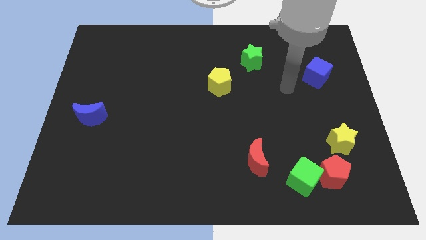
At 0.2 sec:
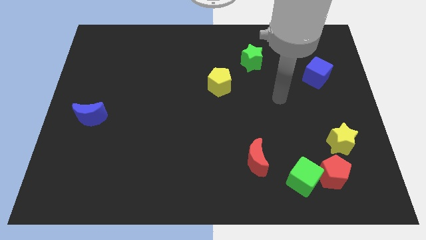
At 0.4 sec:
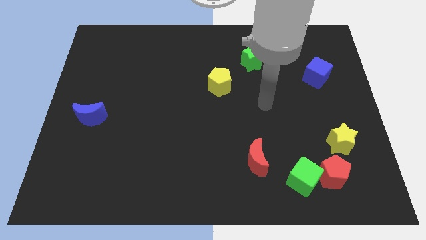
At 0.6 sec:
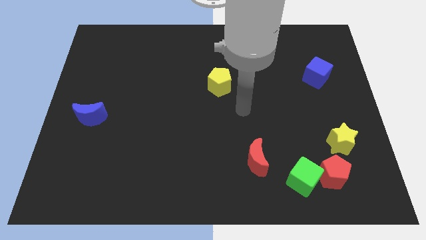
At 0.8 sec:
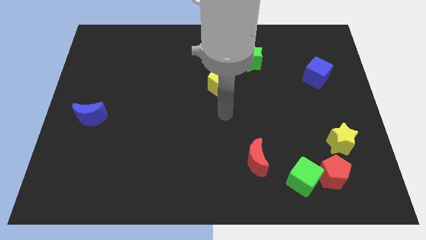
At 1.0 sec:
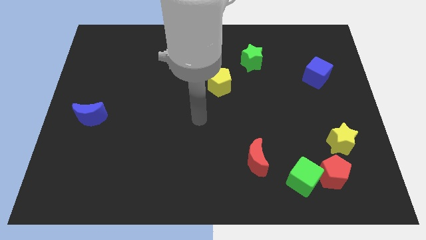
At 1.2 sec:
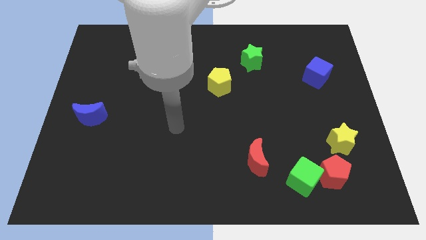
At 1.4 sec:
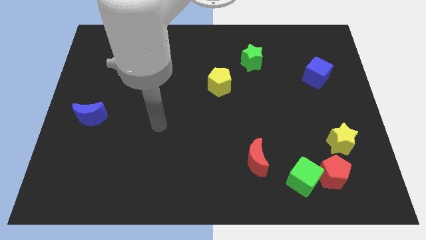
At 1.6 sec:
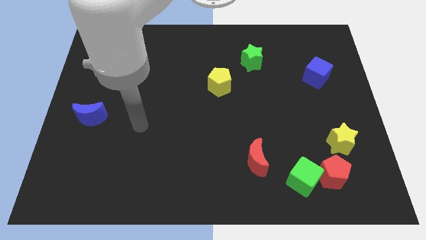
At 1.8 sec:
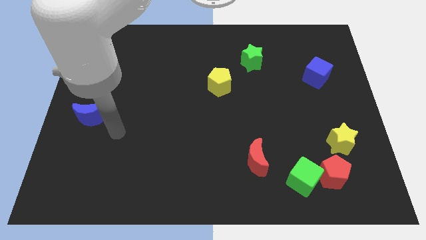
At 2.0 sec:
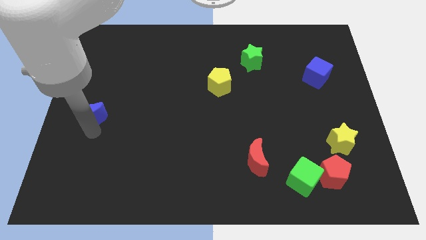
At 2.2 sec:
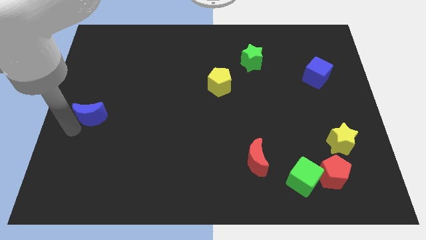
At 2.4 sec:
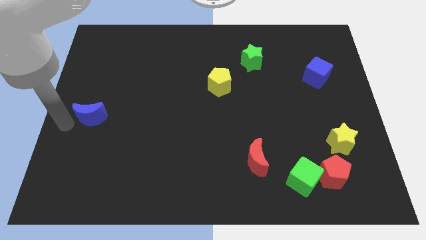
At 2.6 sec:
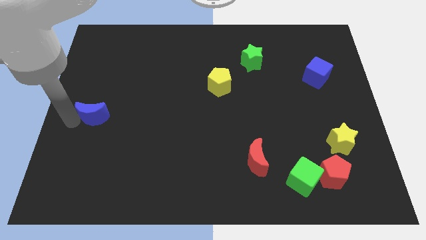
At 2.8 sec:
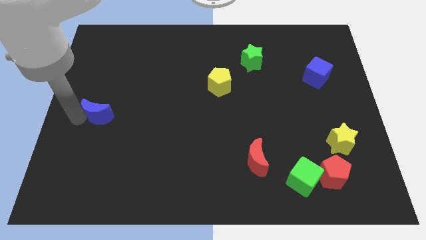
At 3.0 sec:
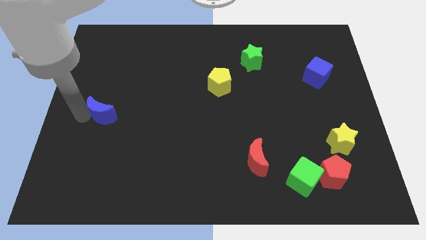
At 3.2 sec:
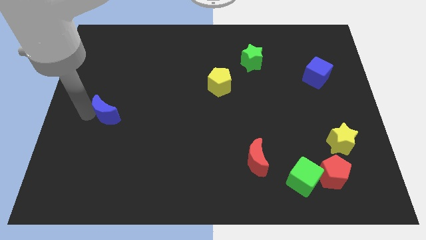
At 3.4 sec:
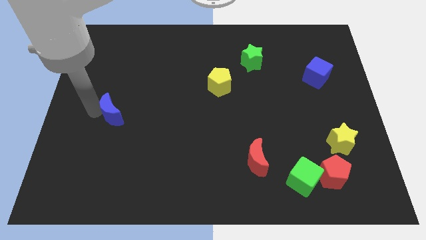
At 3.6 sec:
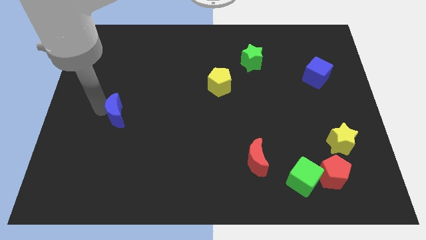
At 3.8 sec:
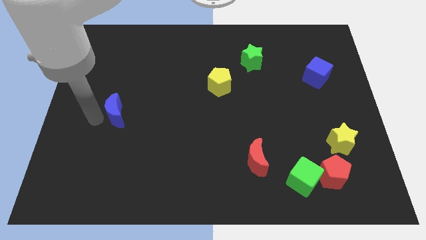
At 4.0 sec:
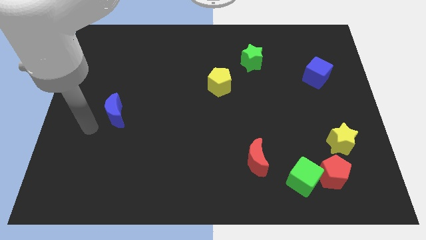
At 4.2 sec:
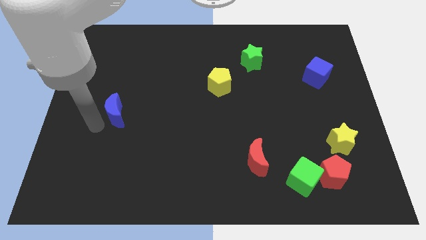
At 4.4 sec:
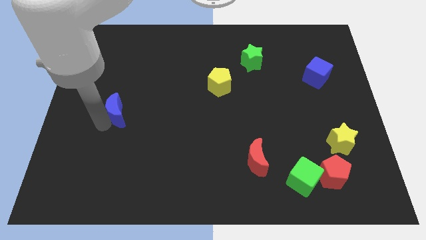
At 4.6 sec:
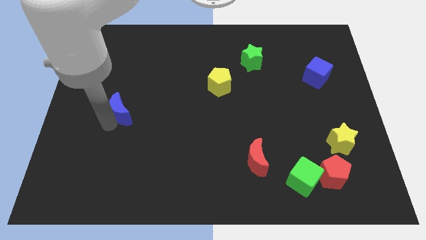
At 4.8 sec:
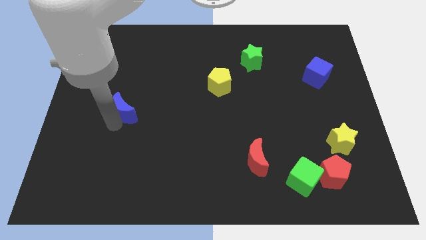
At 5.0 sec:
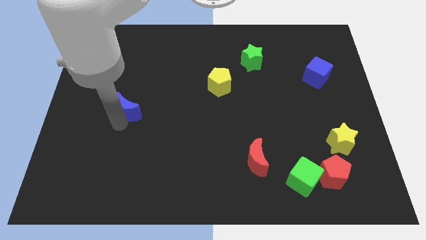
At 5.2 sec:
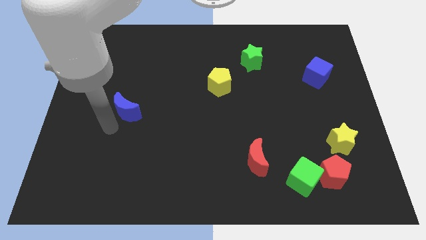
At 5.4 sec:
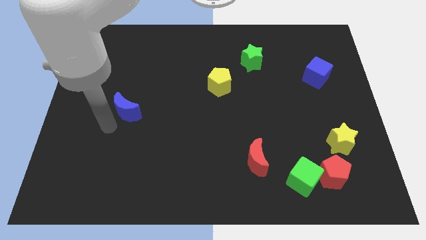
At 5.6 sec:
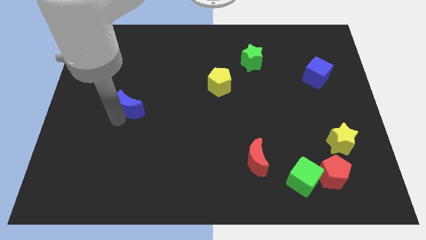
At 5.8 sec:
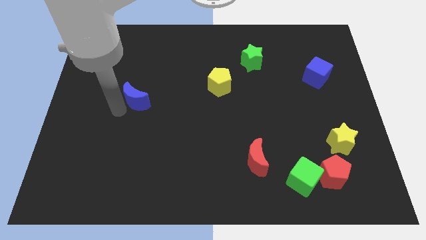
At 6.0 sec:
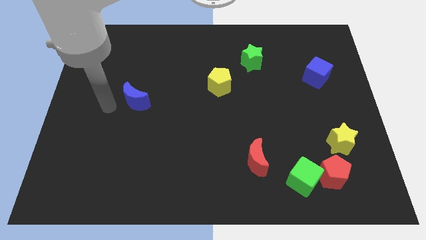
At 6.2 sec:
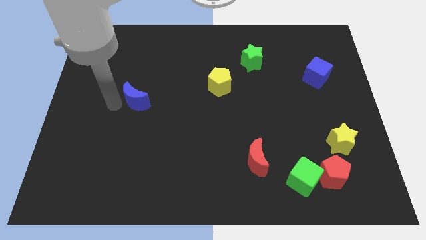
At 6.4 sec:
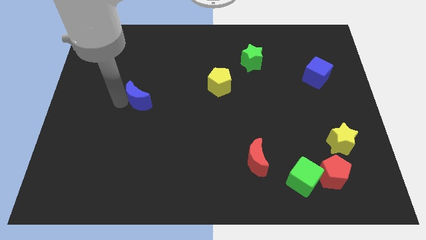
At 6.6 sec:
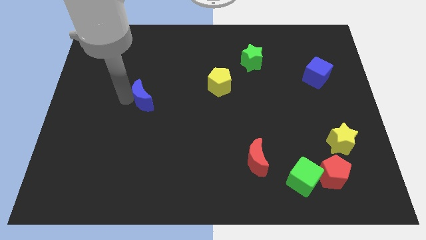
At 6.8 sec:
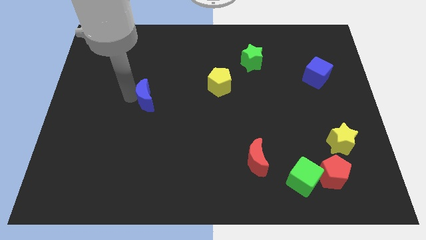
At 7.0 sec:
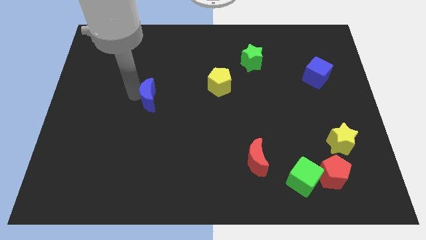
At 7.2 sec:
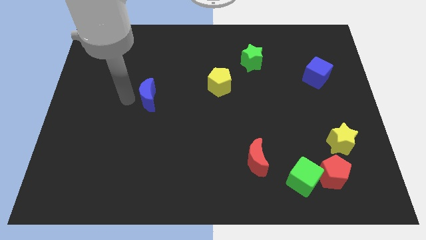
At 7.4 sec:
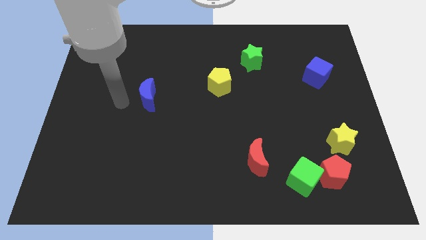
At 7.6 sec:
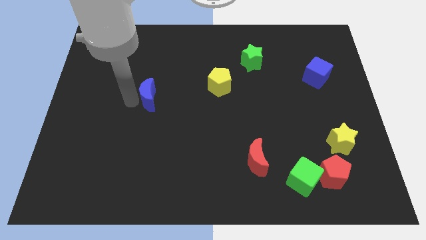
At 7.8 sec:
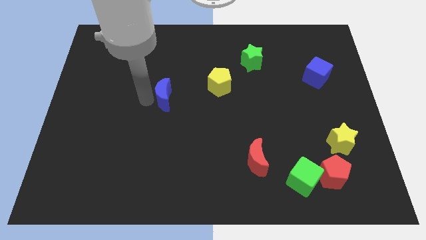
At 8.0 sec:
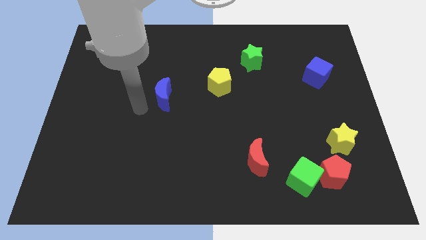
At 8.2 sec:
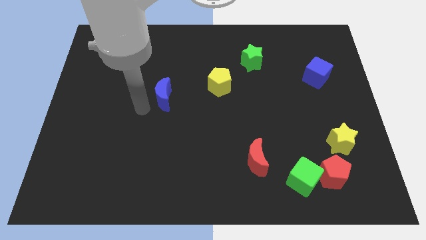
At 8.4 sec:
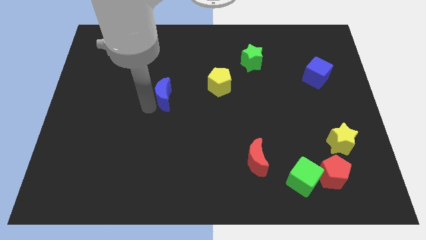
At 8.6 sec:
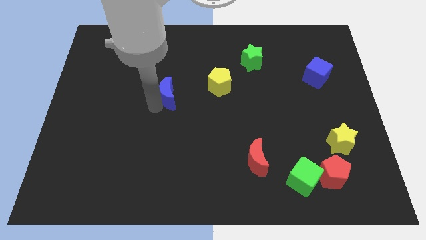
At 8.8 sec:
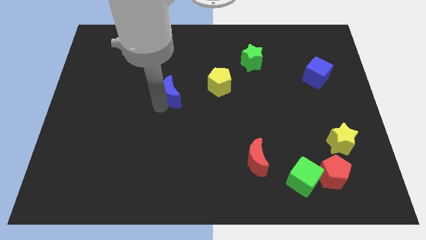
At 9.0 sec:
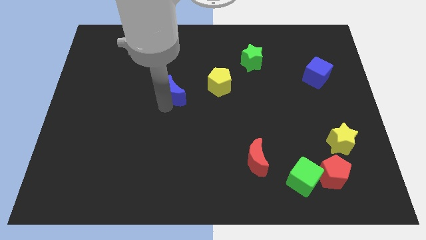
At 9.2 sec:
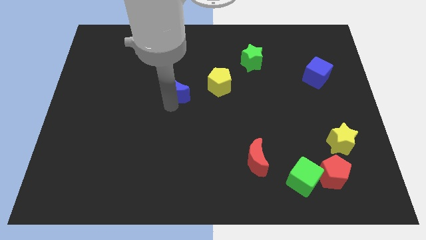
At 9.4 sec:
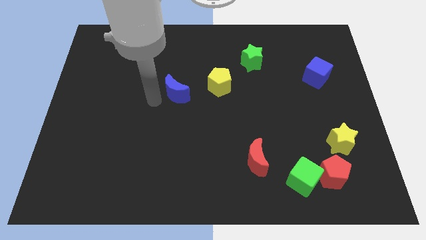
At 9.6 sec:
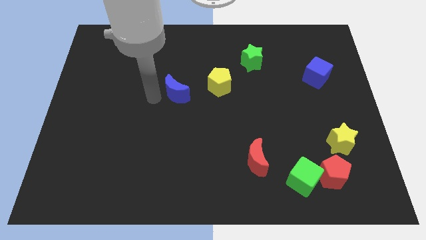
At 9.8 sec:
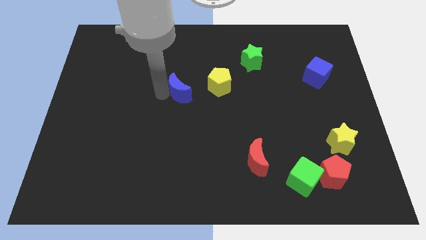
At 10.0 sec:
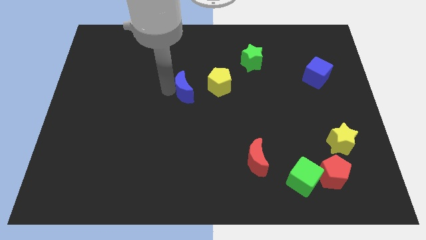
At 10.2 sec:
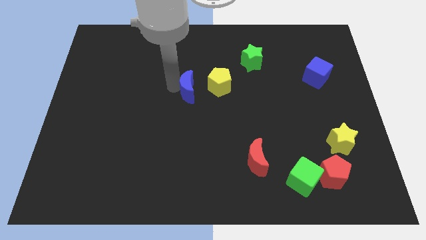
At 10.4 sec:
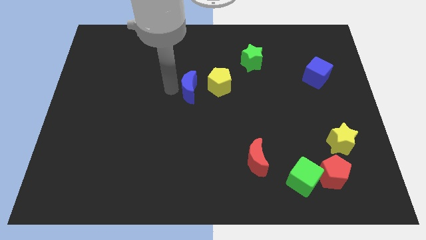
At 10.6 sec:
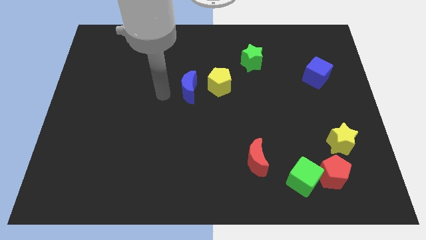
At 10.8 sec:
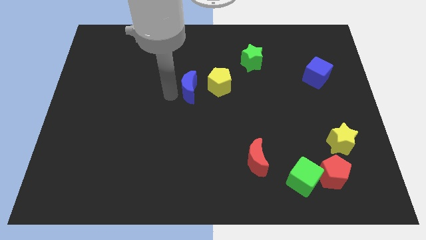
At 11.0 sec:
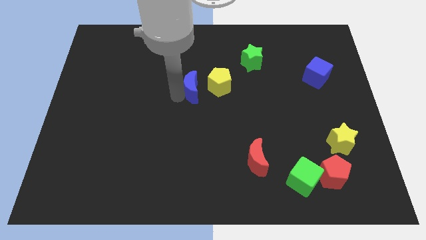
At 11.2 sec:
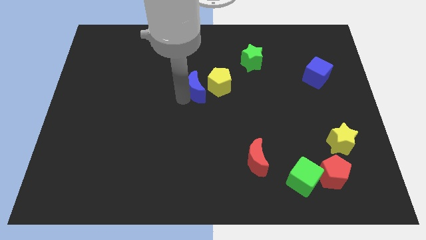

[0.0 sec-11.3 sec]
slide the blue moon to the yellow pentagon

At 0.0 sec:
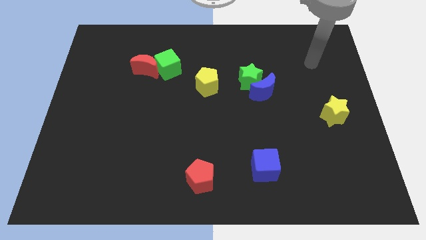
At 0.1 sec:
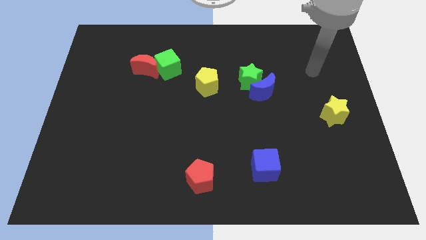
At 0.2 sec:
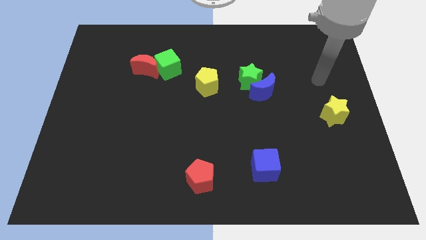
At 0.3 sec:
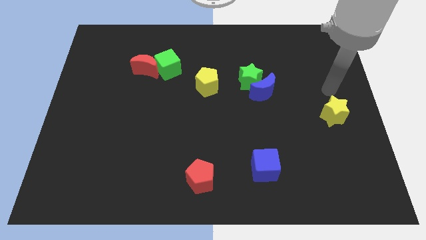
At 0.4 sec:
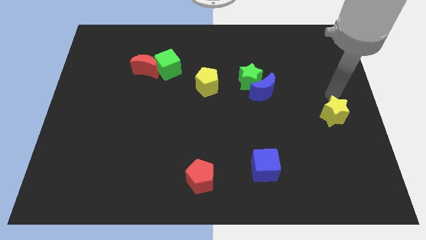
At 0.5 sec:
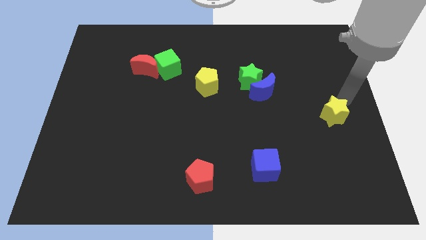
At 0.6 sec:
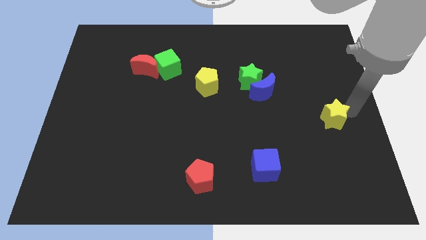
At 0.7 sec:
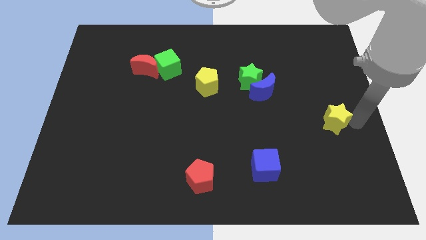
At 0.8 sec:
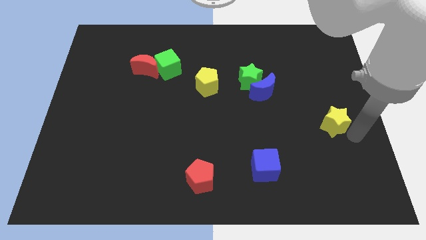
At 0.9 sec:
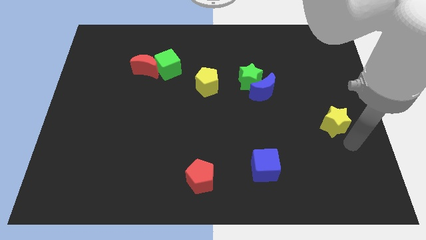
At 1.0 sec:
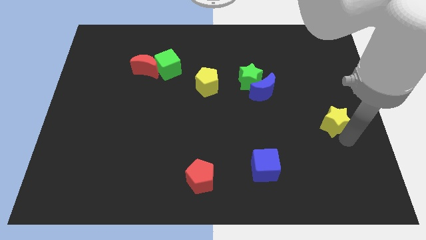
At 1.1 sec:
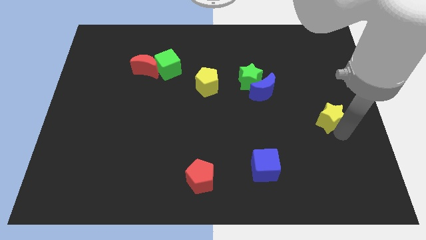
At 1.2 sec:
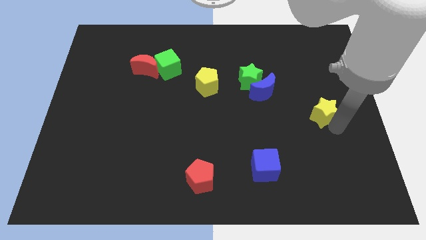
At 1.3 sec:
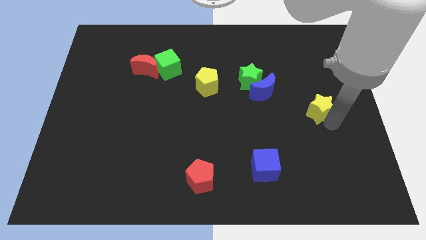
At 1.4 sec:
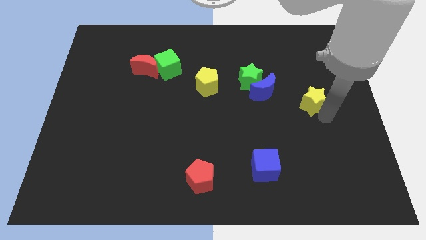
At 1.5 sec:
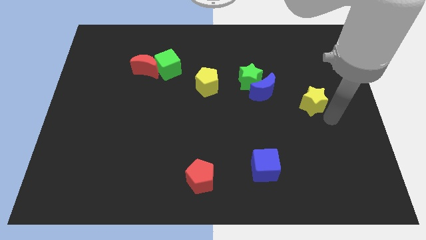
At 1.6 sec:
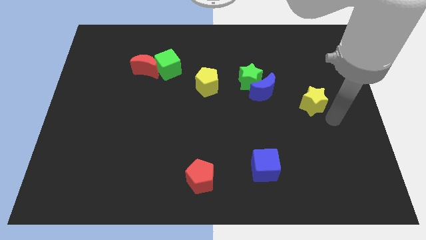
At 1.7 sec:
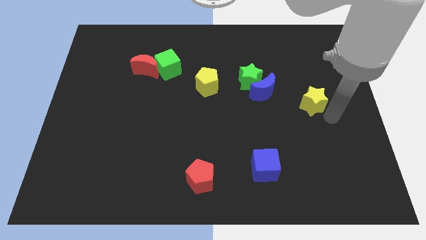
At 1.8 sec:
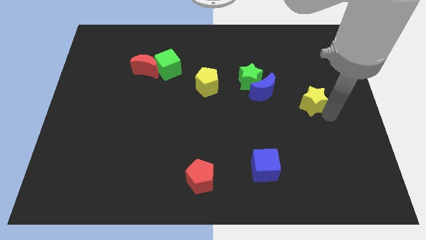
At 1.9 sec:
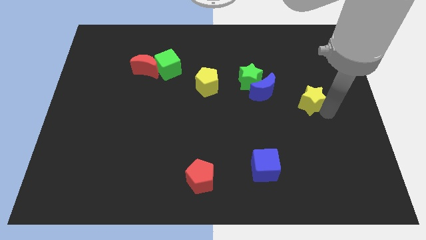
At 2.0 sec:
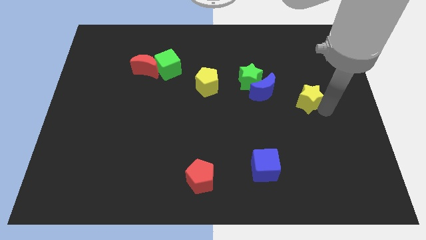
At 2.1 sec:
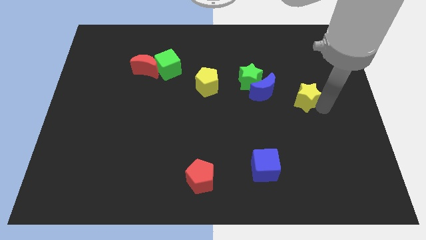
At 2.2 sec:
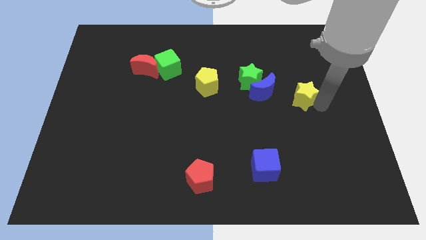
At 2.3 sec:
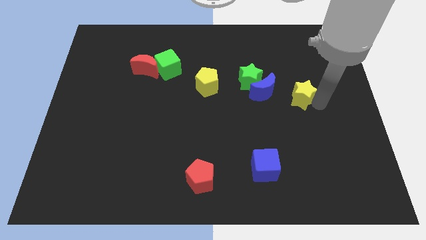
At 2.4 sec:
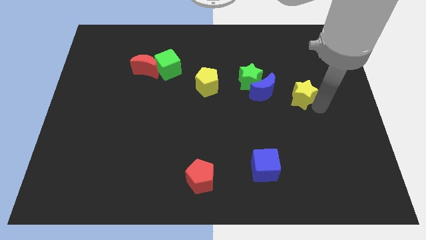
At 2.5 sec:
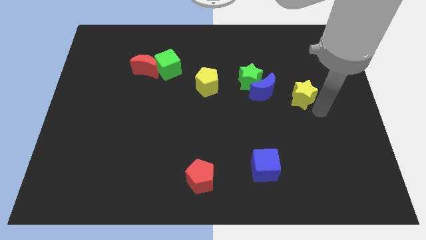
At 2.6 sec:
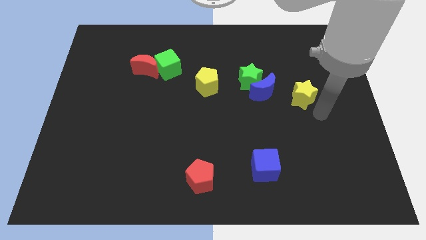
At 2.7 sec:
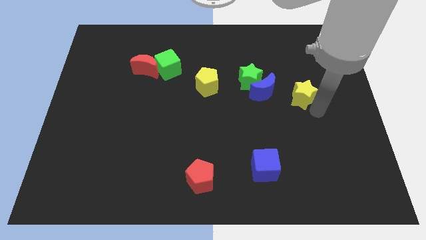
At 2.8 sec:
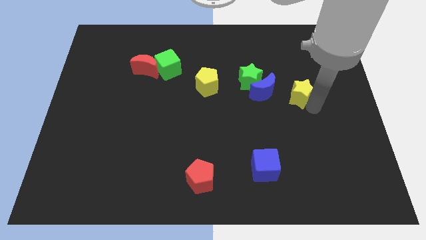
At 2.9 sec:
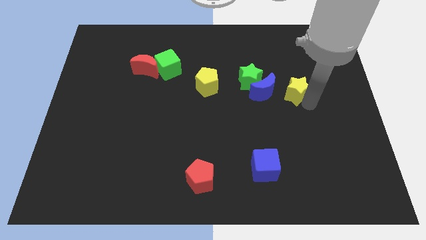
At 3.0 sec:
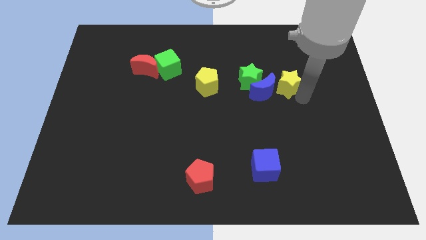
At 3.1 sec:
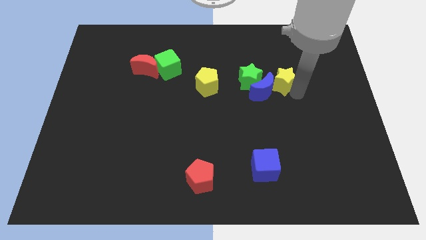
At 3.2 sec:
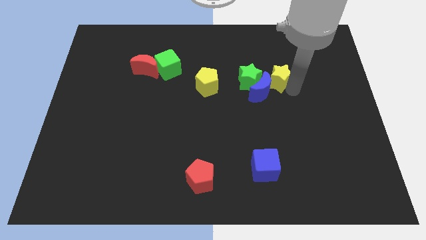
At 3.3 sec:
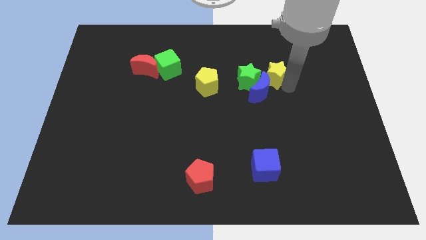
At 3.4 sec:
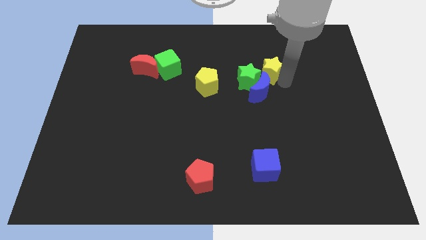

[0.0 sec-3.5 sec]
put the yellow star to the green star
